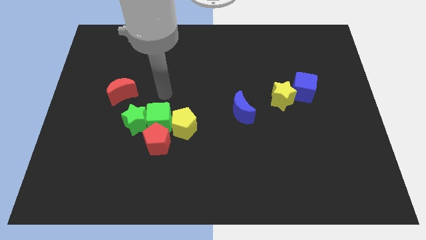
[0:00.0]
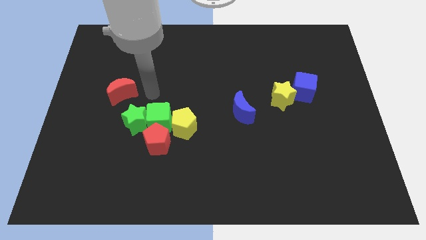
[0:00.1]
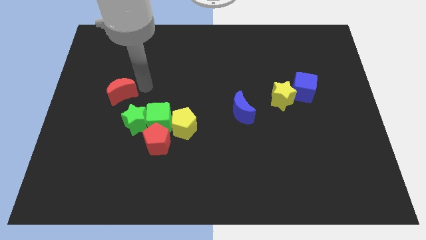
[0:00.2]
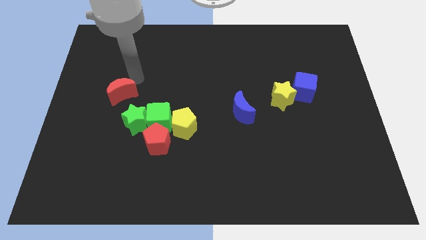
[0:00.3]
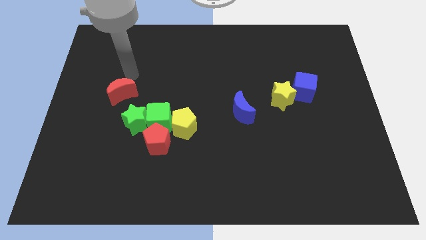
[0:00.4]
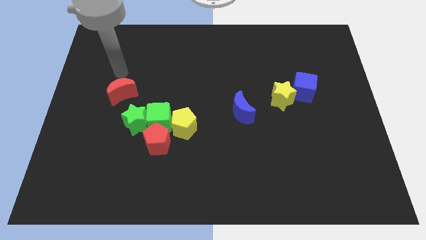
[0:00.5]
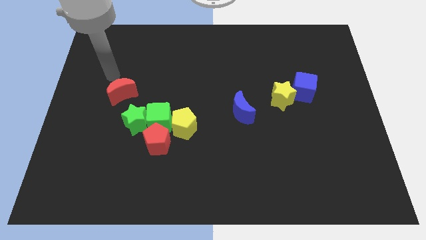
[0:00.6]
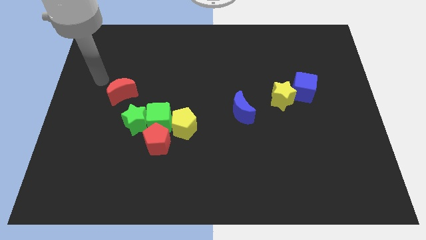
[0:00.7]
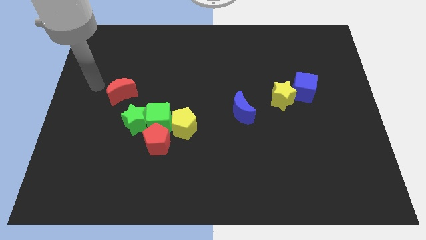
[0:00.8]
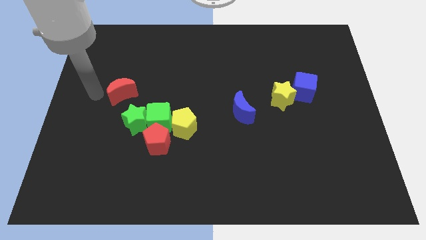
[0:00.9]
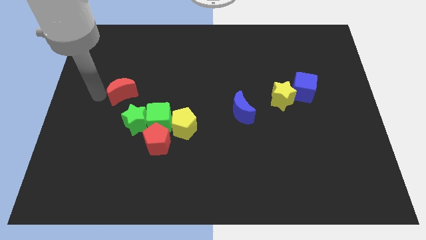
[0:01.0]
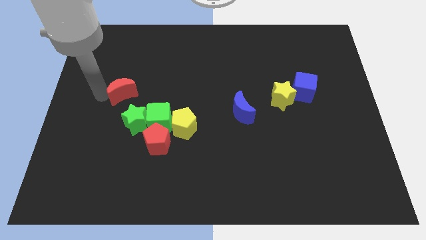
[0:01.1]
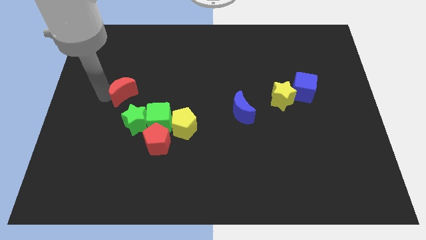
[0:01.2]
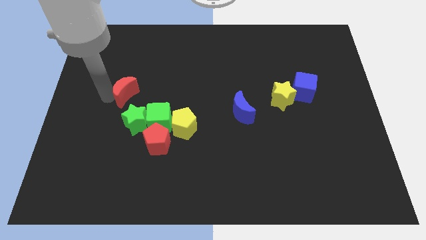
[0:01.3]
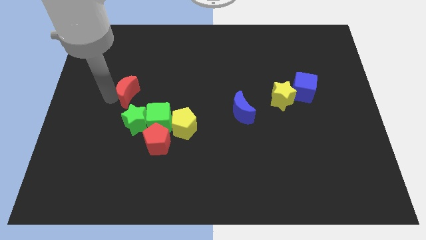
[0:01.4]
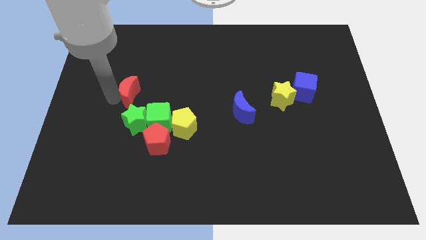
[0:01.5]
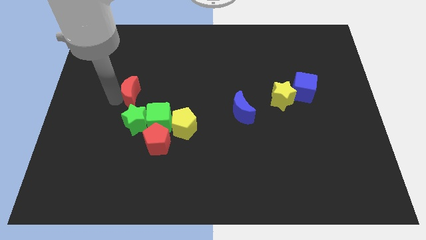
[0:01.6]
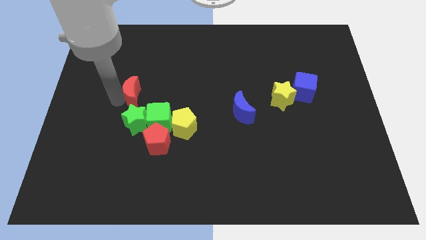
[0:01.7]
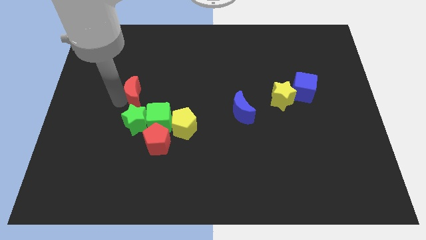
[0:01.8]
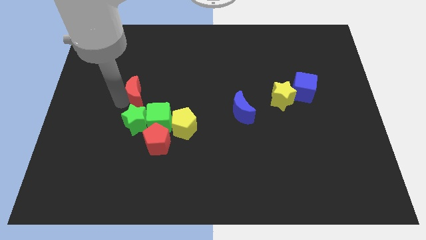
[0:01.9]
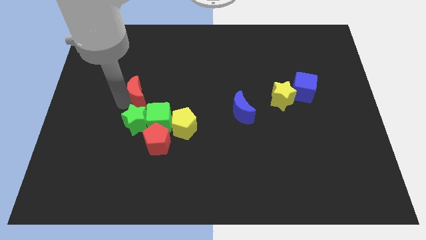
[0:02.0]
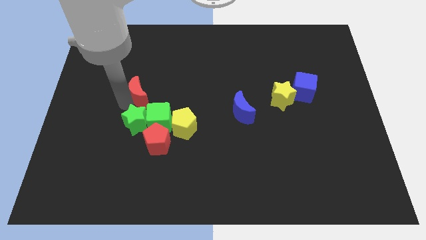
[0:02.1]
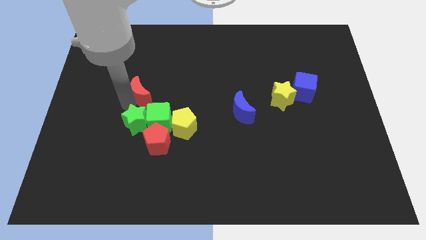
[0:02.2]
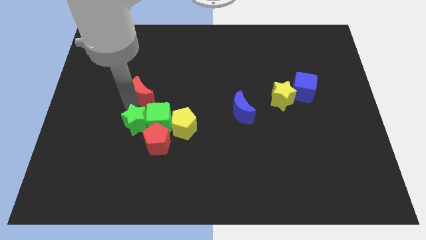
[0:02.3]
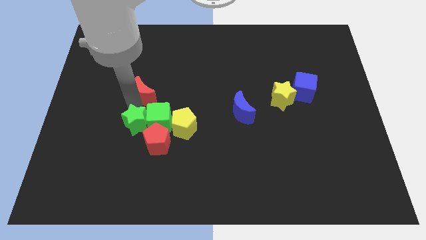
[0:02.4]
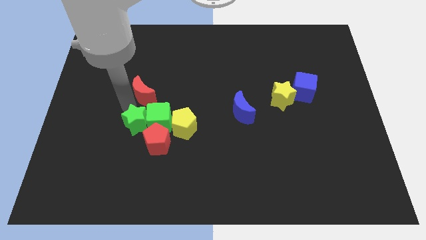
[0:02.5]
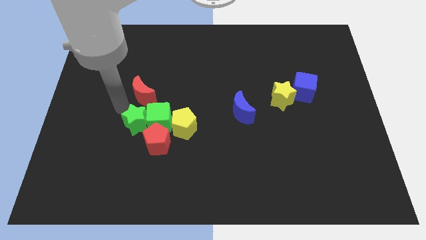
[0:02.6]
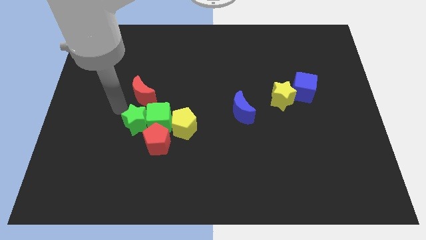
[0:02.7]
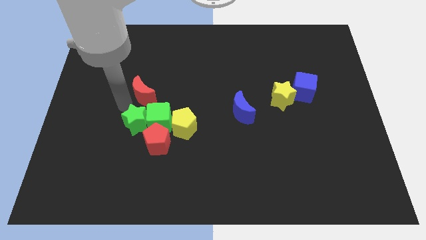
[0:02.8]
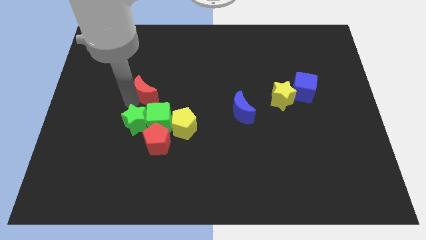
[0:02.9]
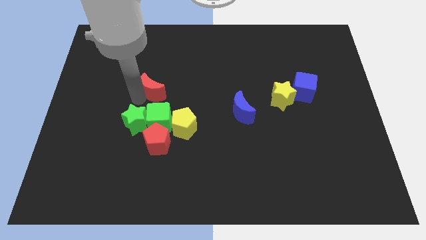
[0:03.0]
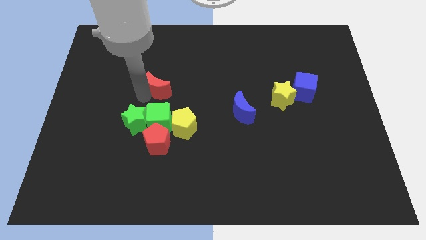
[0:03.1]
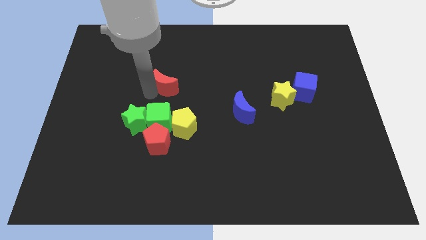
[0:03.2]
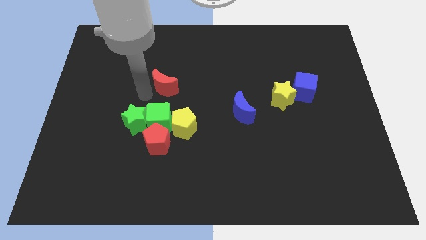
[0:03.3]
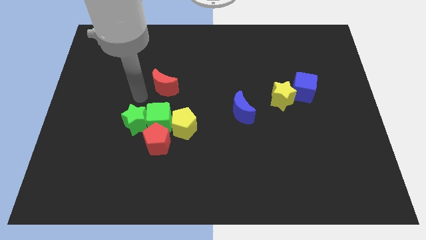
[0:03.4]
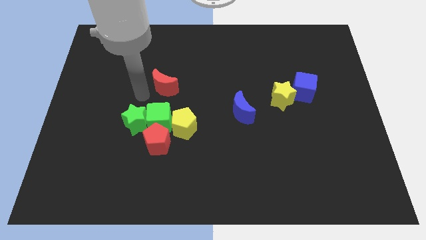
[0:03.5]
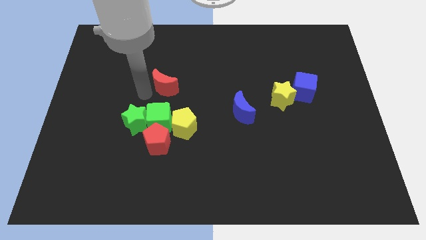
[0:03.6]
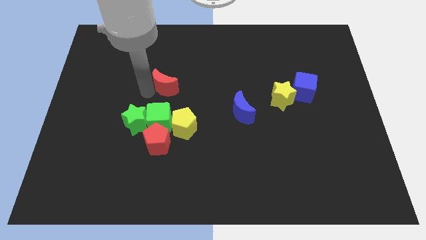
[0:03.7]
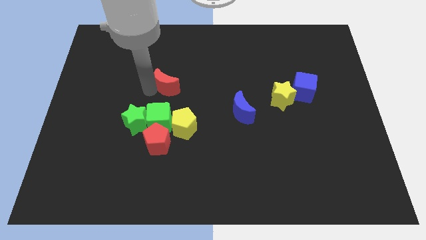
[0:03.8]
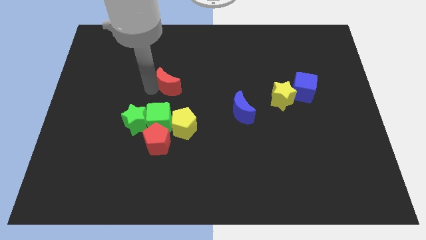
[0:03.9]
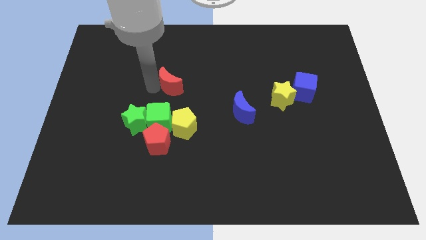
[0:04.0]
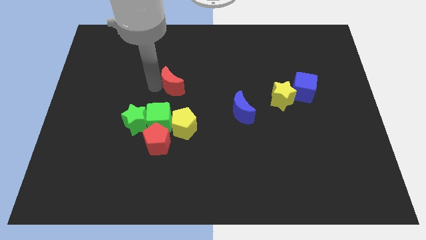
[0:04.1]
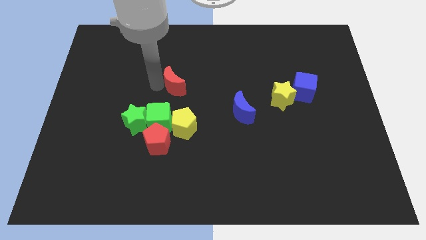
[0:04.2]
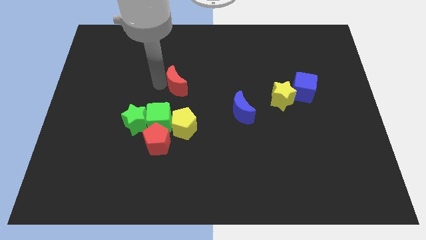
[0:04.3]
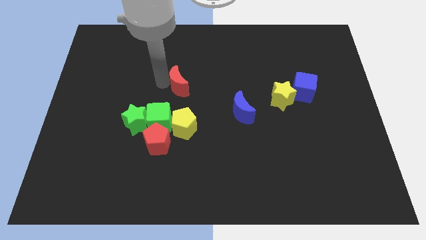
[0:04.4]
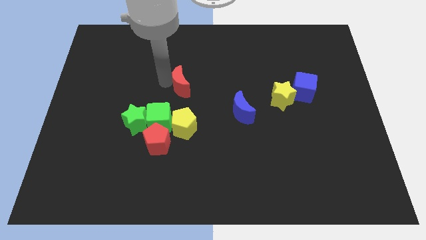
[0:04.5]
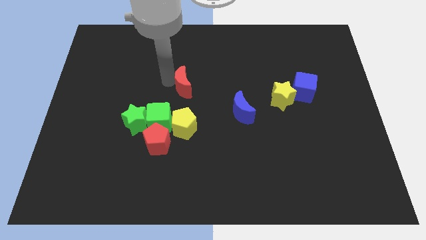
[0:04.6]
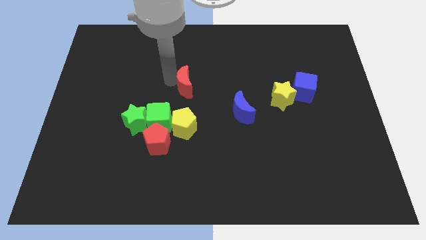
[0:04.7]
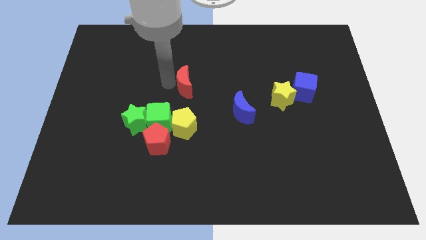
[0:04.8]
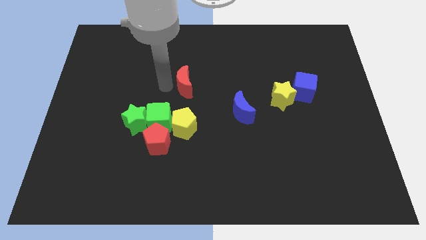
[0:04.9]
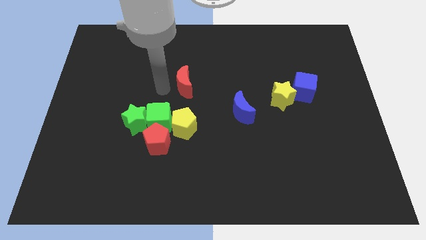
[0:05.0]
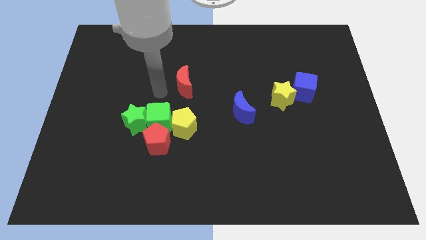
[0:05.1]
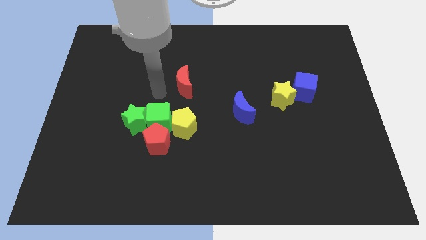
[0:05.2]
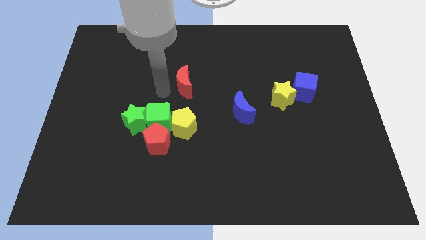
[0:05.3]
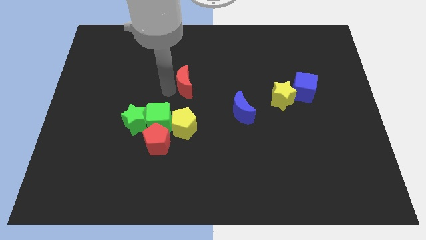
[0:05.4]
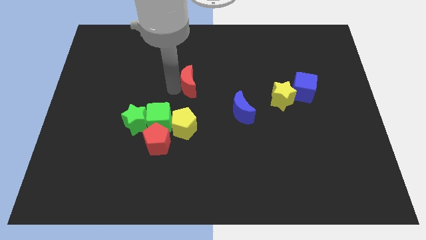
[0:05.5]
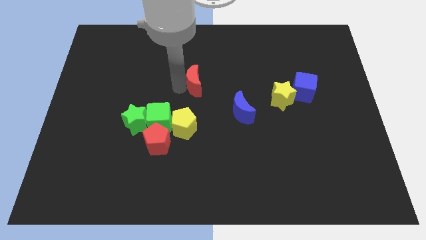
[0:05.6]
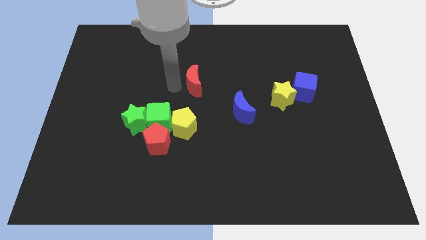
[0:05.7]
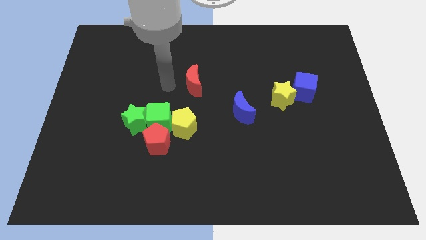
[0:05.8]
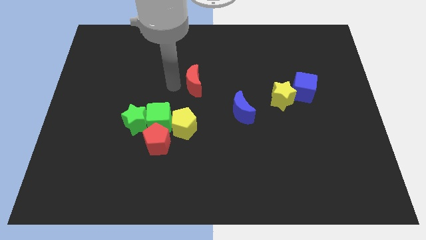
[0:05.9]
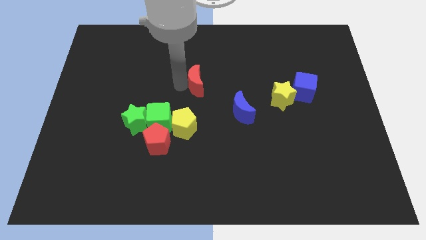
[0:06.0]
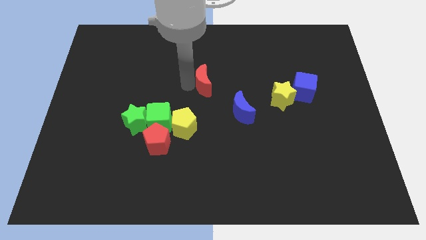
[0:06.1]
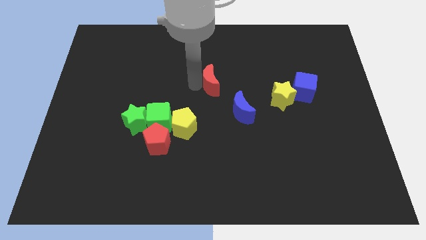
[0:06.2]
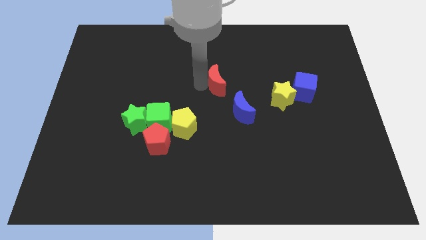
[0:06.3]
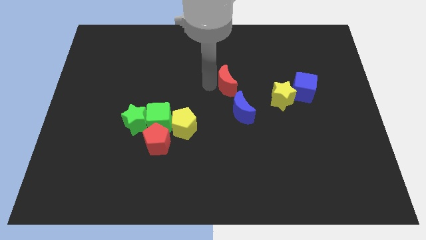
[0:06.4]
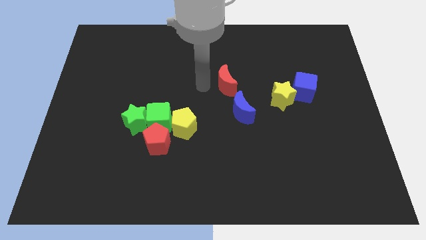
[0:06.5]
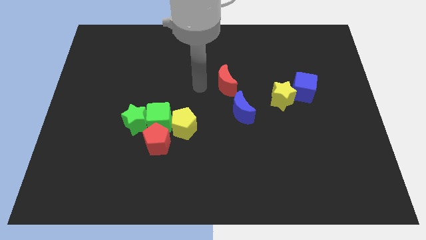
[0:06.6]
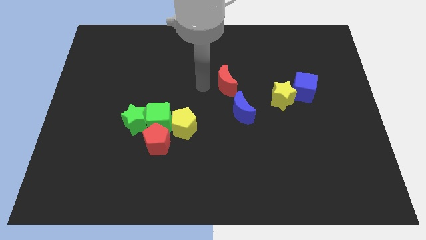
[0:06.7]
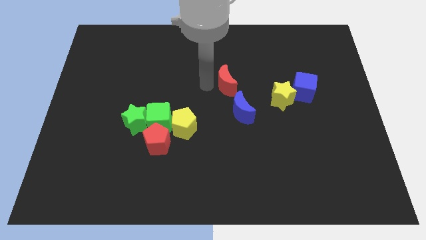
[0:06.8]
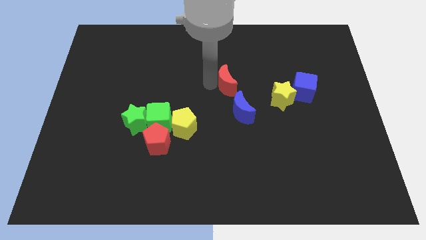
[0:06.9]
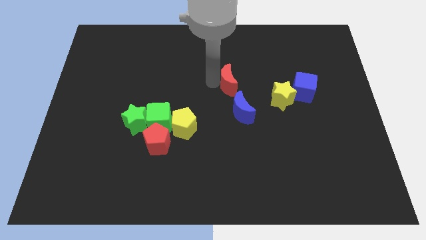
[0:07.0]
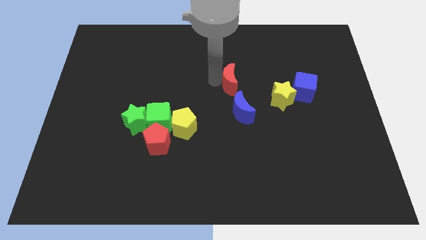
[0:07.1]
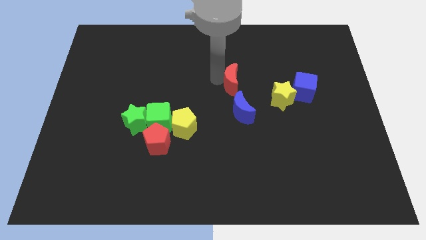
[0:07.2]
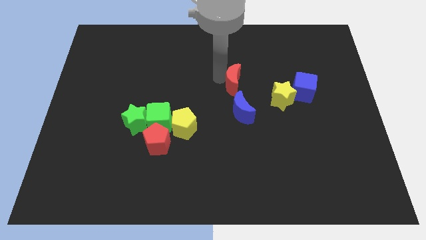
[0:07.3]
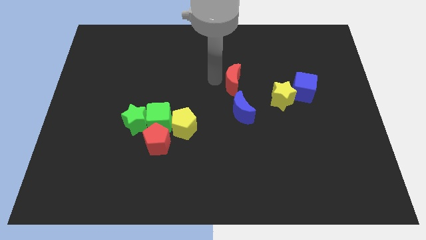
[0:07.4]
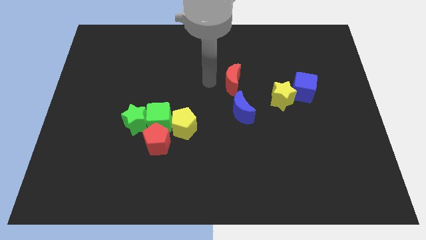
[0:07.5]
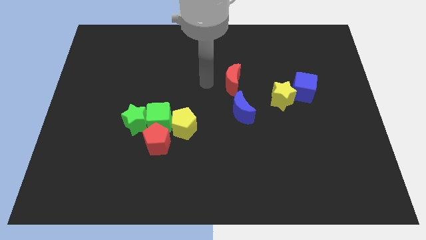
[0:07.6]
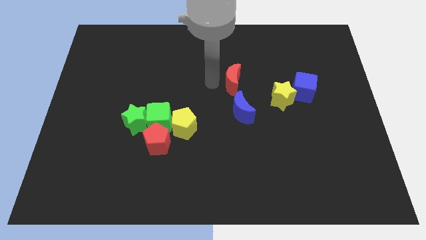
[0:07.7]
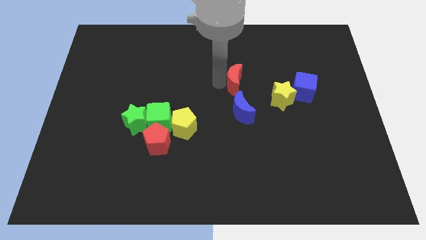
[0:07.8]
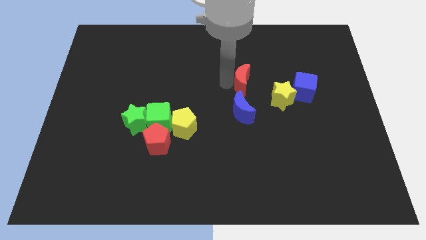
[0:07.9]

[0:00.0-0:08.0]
move the red moon diagonally up and to the left of the yellow star
